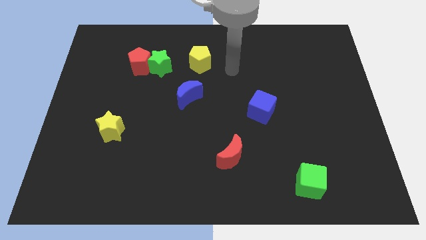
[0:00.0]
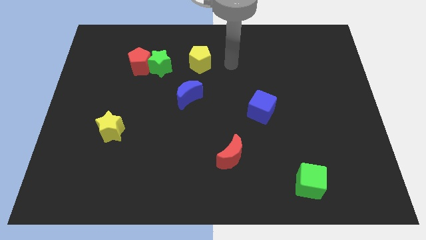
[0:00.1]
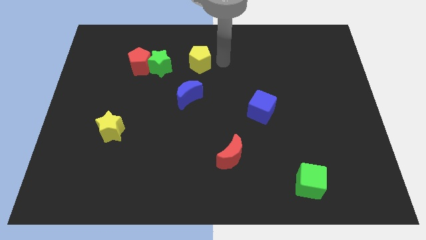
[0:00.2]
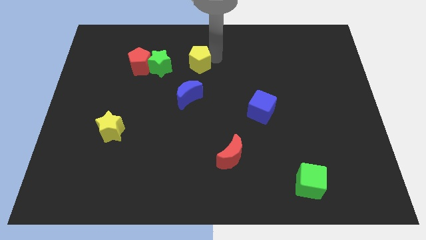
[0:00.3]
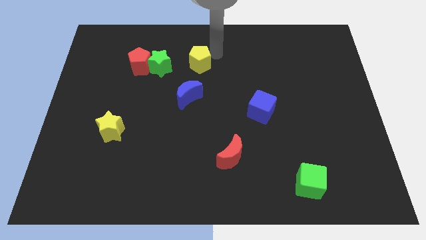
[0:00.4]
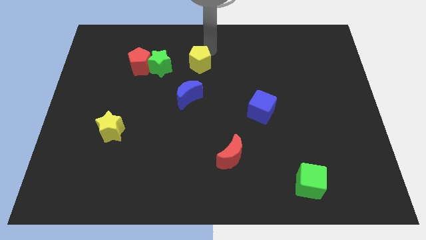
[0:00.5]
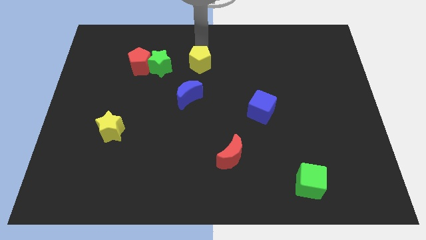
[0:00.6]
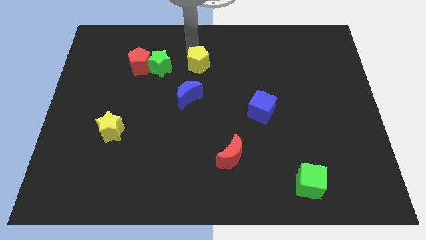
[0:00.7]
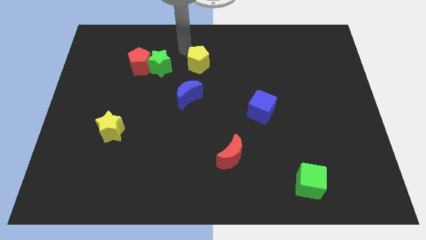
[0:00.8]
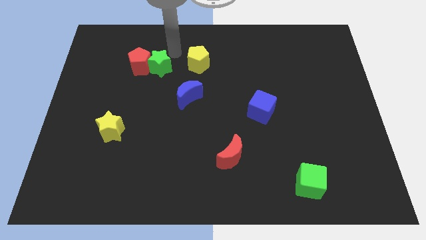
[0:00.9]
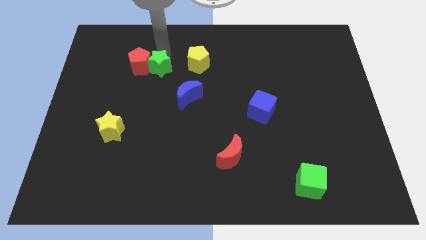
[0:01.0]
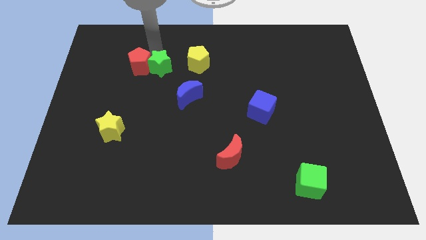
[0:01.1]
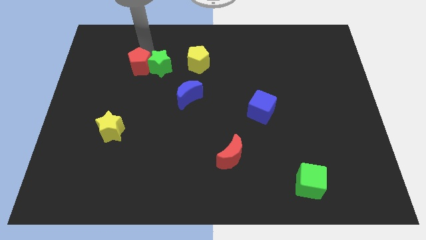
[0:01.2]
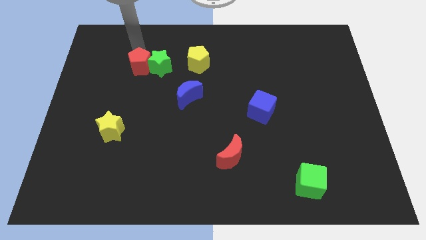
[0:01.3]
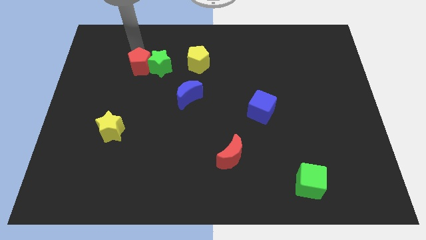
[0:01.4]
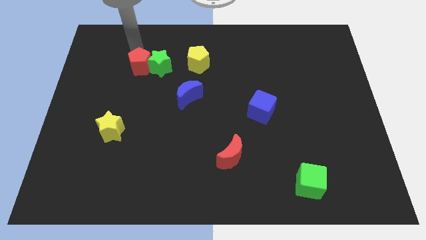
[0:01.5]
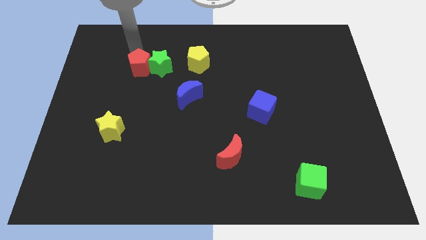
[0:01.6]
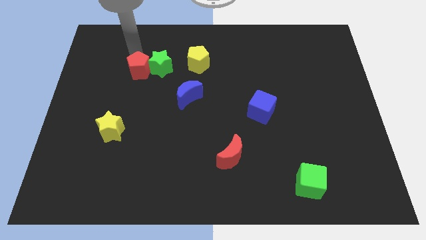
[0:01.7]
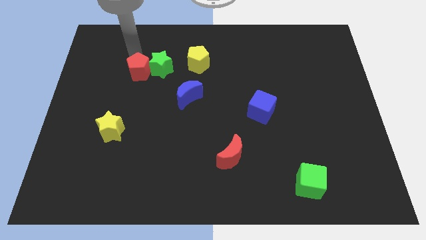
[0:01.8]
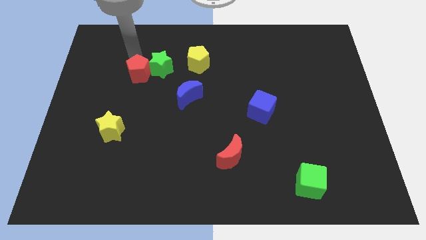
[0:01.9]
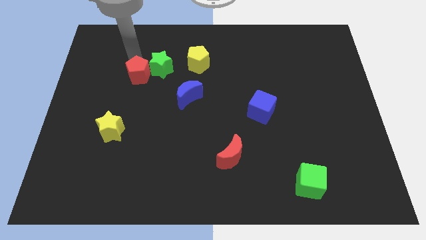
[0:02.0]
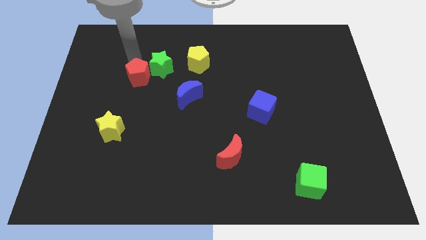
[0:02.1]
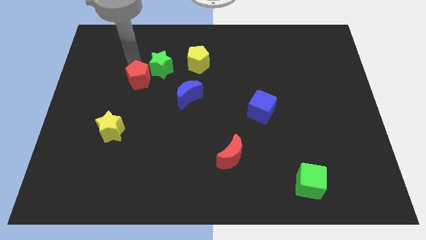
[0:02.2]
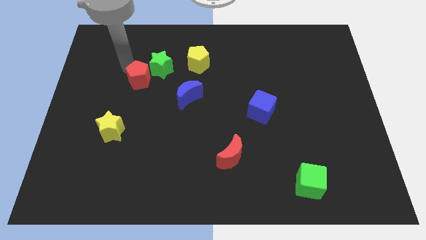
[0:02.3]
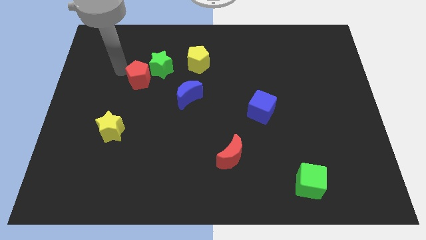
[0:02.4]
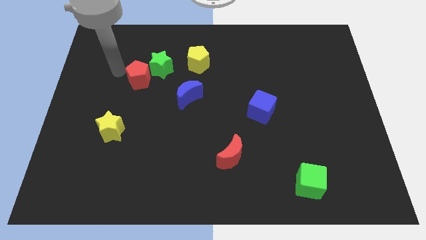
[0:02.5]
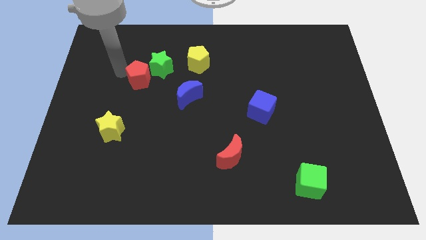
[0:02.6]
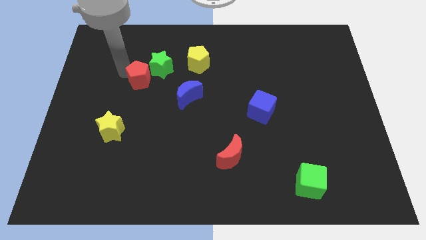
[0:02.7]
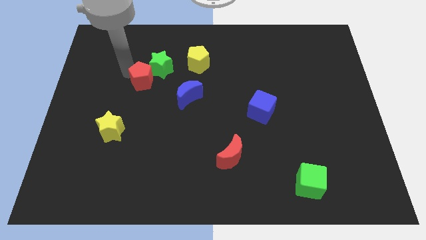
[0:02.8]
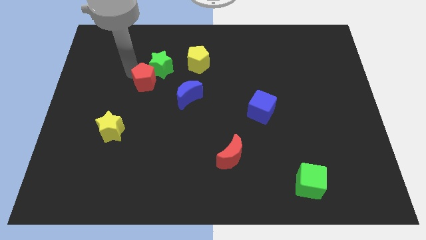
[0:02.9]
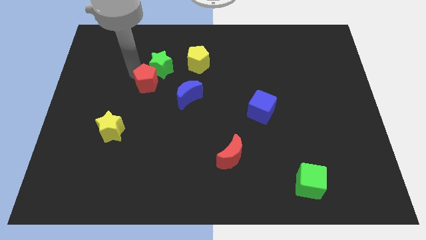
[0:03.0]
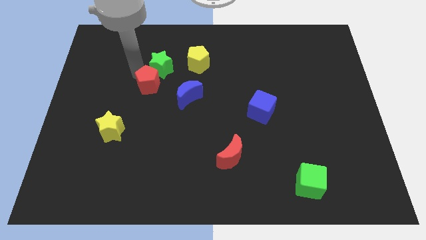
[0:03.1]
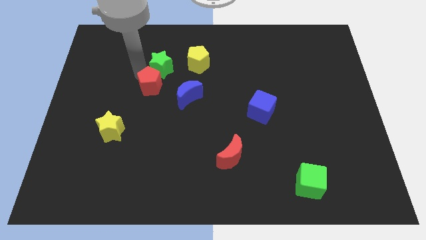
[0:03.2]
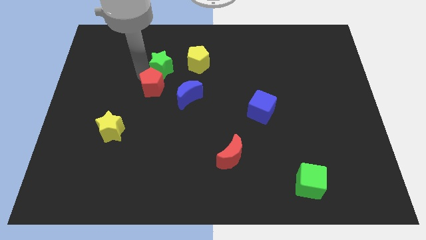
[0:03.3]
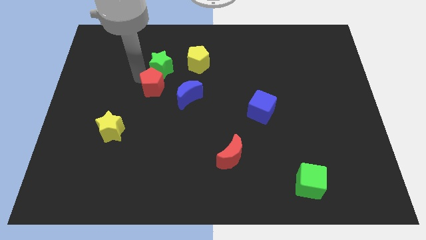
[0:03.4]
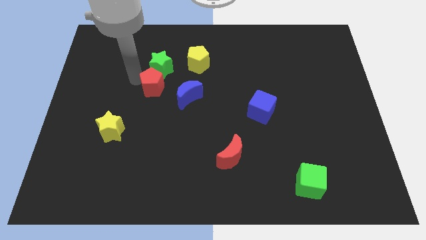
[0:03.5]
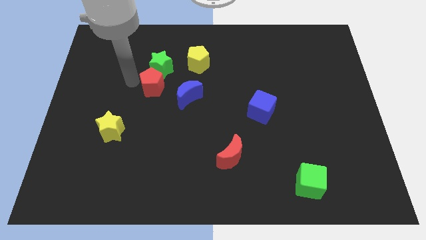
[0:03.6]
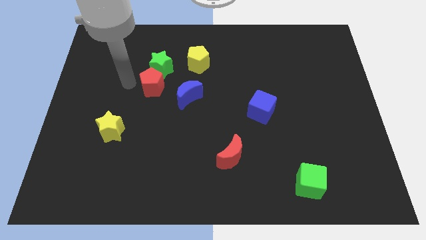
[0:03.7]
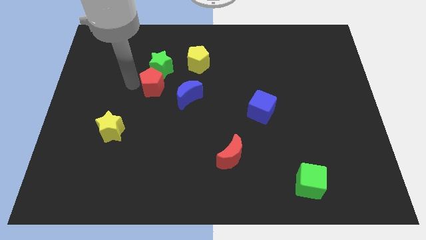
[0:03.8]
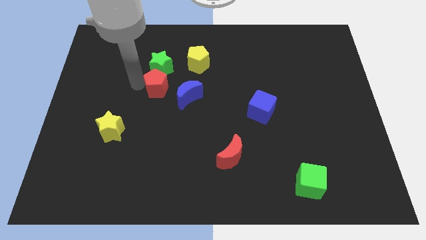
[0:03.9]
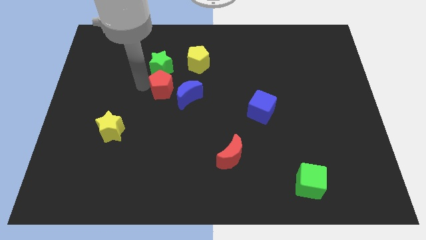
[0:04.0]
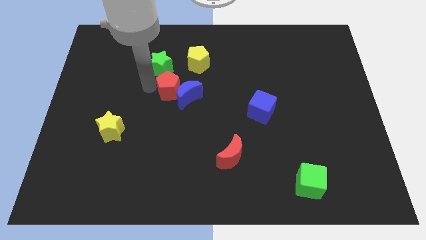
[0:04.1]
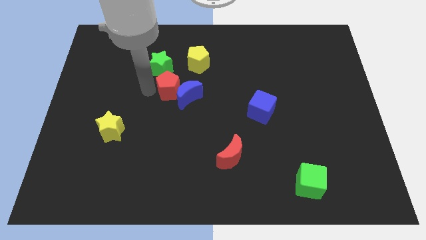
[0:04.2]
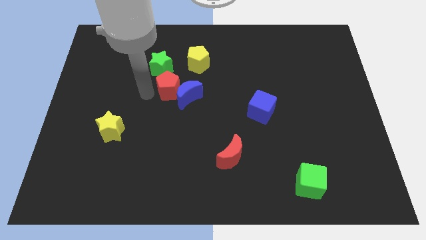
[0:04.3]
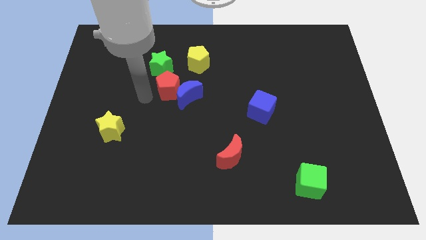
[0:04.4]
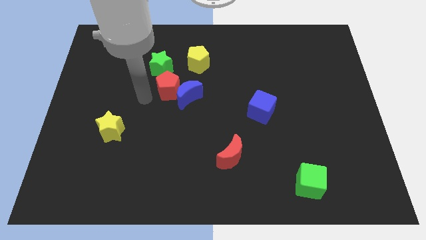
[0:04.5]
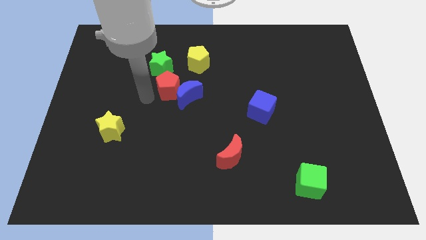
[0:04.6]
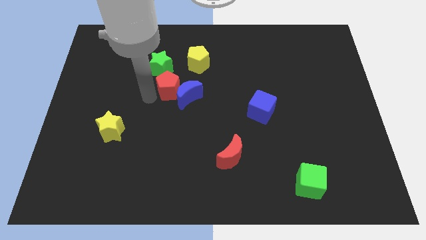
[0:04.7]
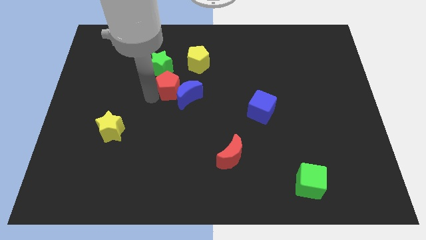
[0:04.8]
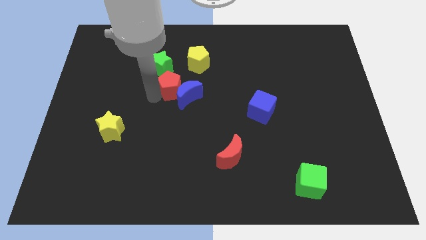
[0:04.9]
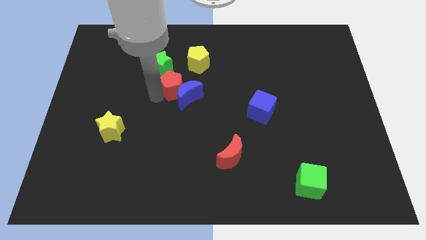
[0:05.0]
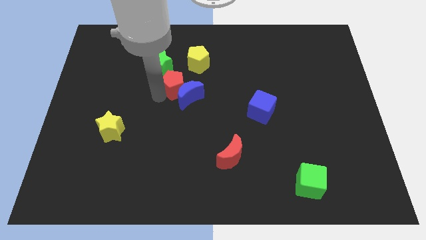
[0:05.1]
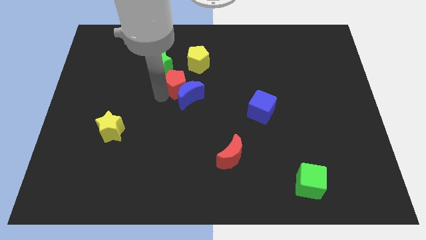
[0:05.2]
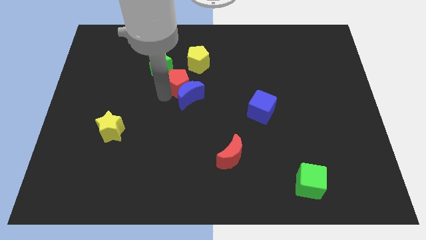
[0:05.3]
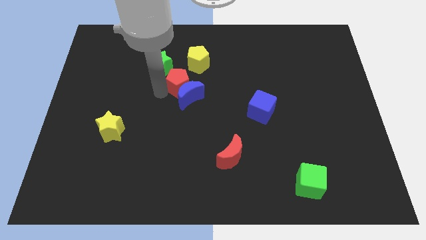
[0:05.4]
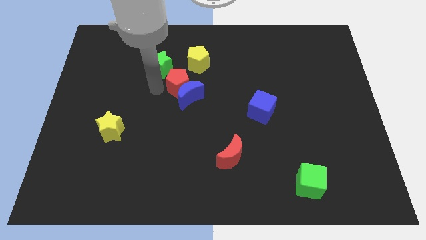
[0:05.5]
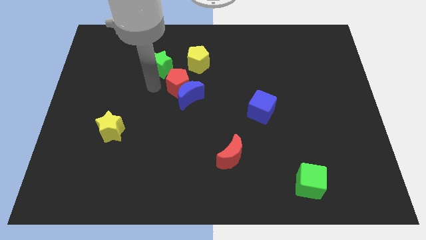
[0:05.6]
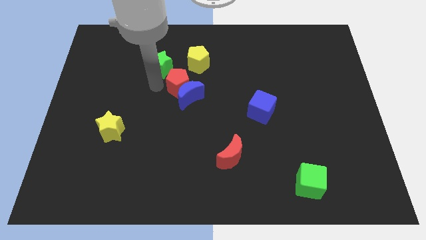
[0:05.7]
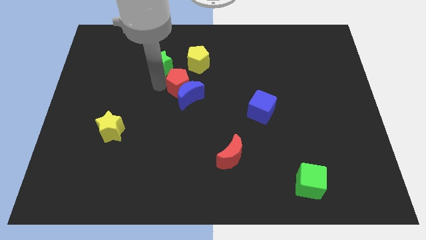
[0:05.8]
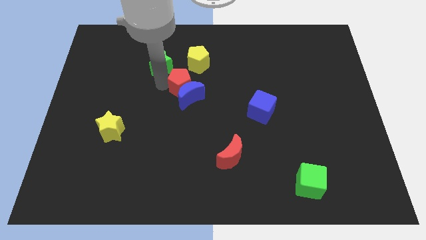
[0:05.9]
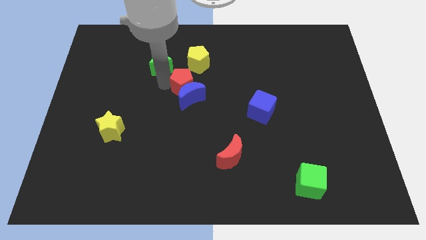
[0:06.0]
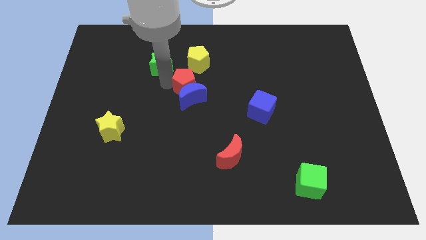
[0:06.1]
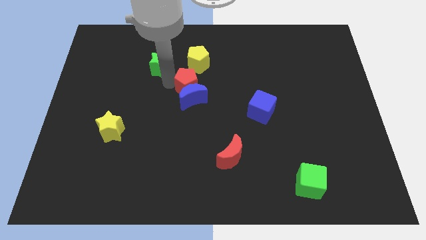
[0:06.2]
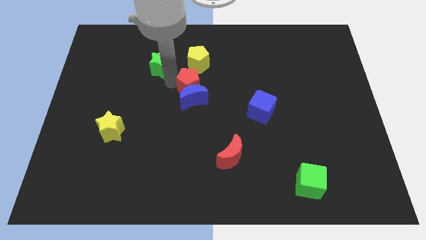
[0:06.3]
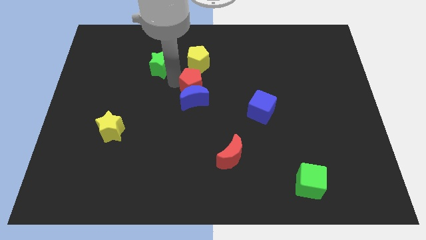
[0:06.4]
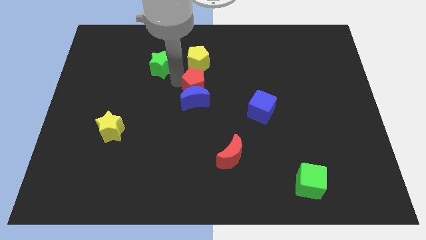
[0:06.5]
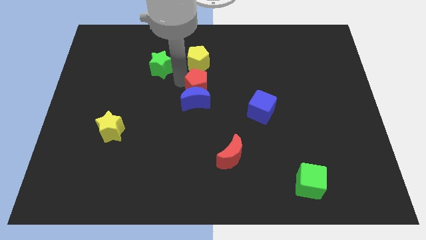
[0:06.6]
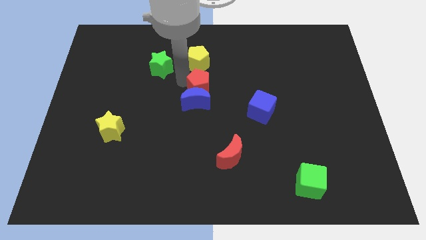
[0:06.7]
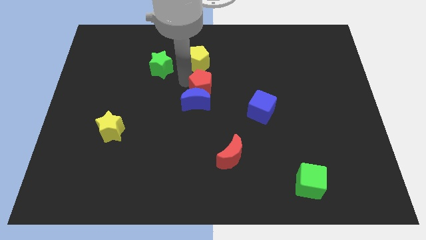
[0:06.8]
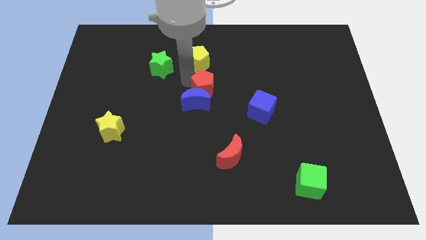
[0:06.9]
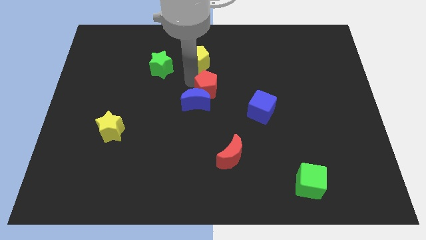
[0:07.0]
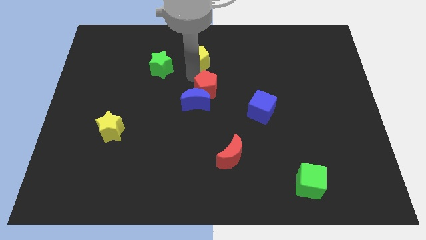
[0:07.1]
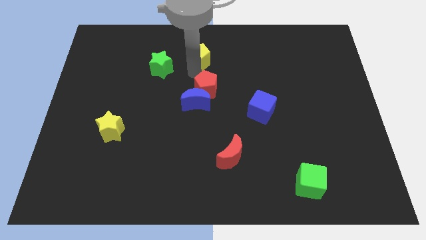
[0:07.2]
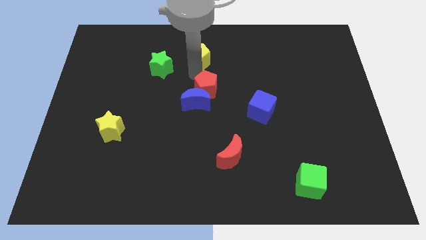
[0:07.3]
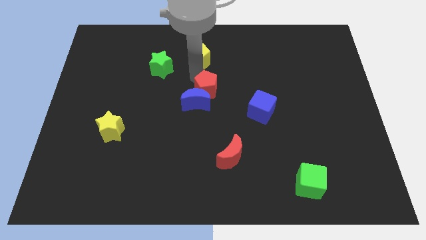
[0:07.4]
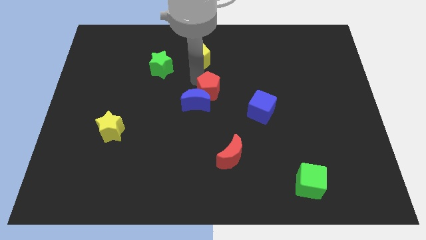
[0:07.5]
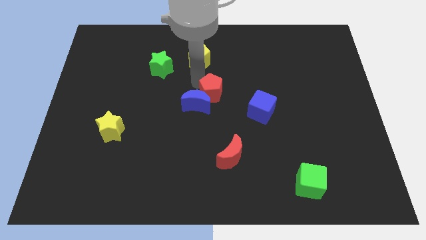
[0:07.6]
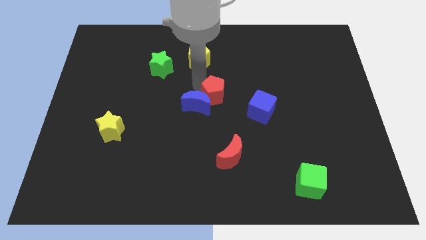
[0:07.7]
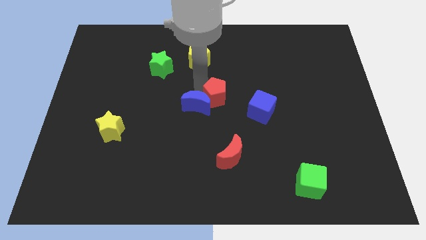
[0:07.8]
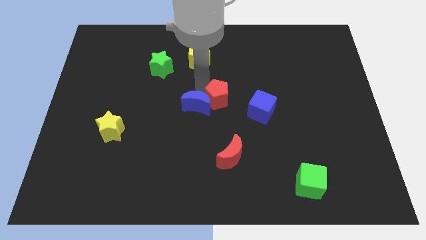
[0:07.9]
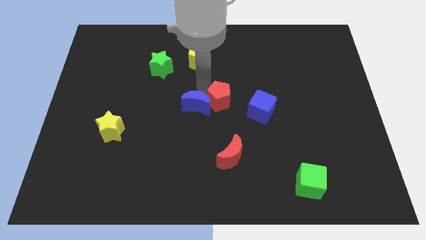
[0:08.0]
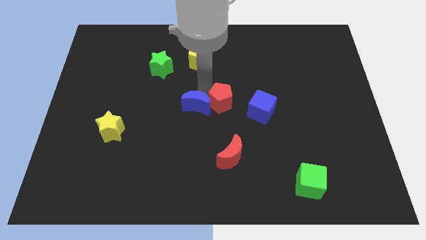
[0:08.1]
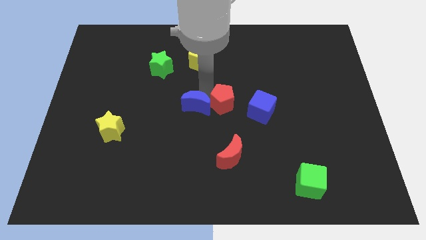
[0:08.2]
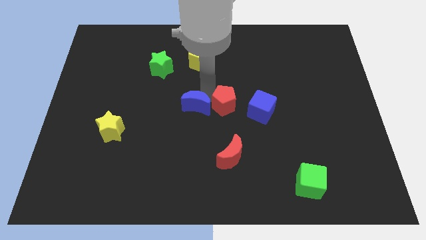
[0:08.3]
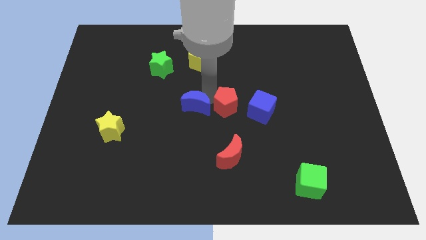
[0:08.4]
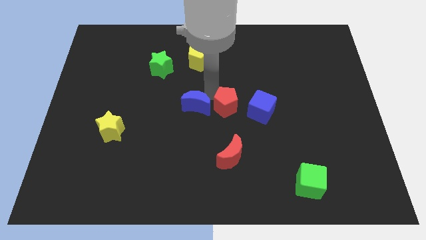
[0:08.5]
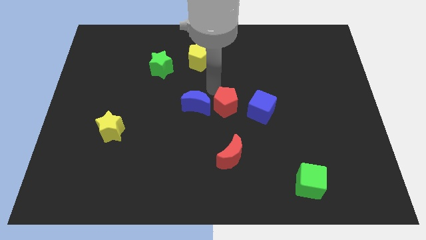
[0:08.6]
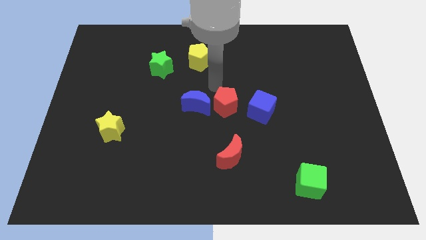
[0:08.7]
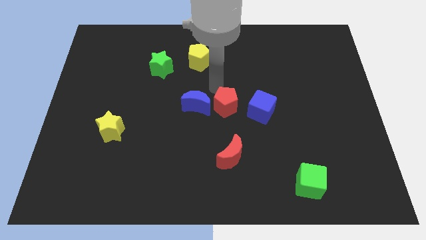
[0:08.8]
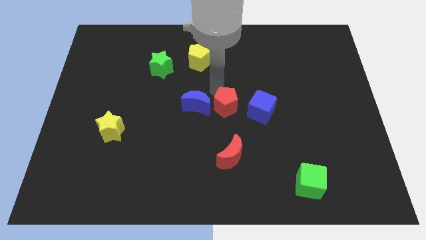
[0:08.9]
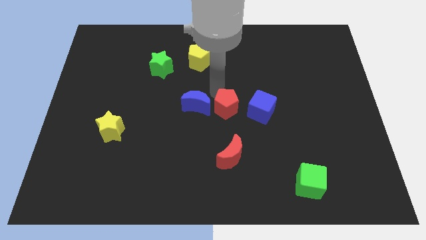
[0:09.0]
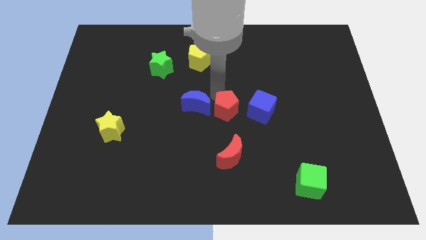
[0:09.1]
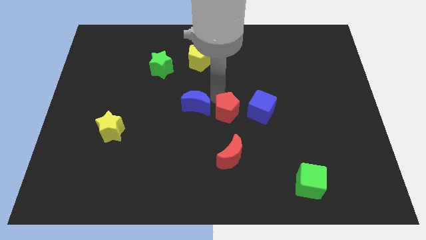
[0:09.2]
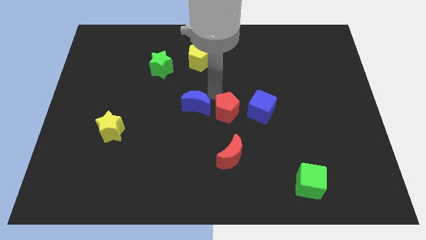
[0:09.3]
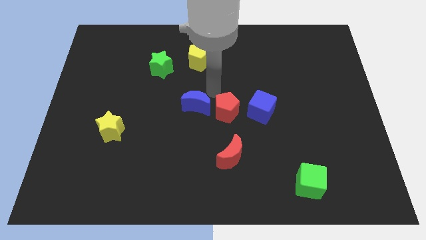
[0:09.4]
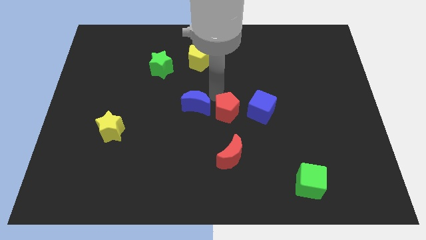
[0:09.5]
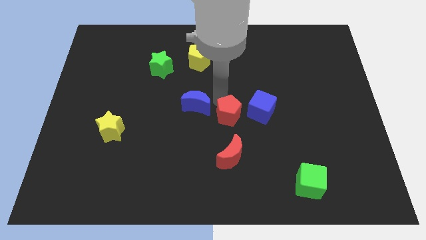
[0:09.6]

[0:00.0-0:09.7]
push the red pentagon to the bottom left of the blue cube
